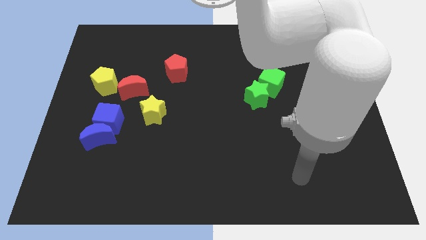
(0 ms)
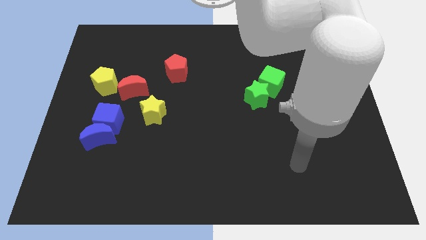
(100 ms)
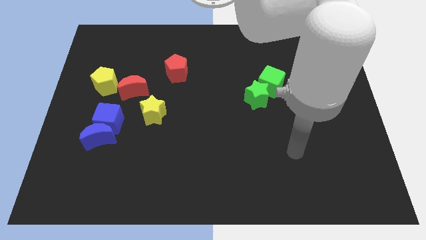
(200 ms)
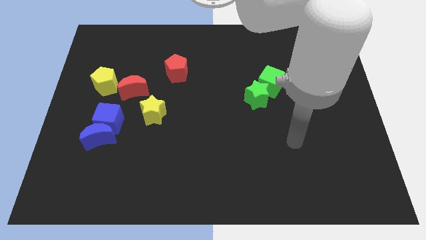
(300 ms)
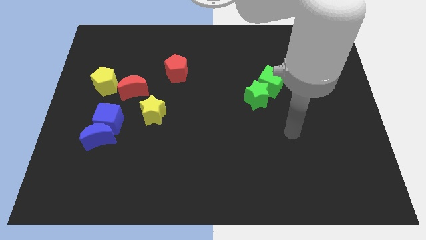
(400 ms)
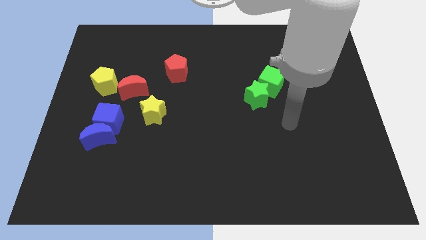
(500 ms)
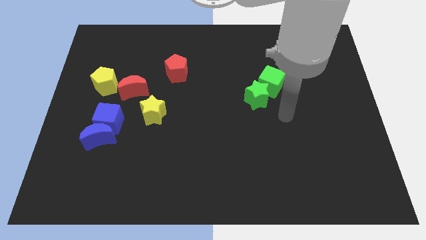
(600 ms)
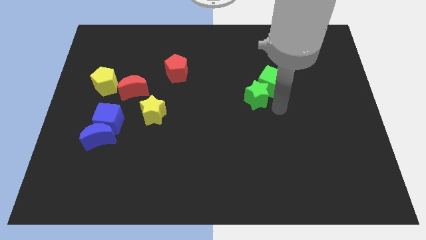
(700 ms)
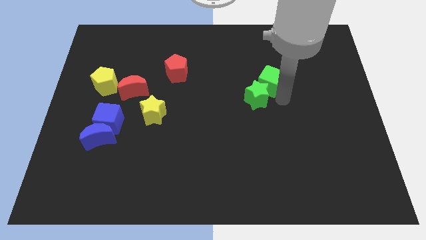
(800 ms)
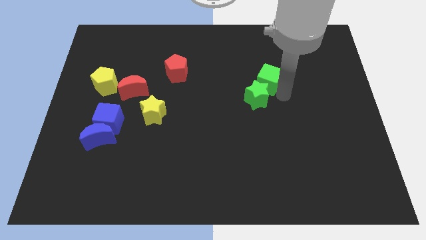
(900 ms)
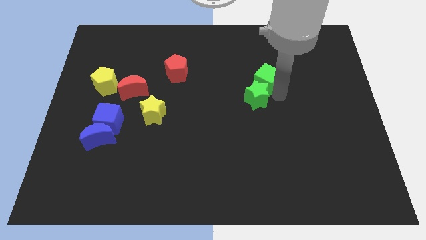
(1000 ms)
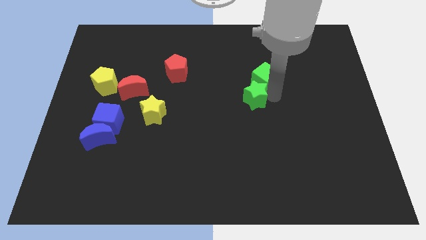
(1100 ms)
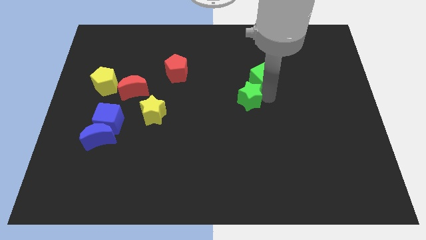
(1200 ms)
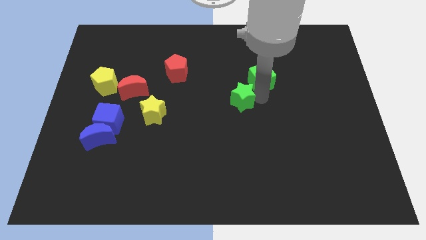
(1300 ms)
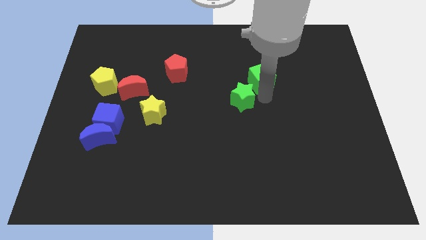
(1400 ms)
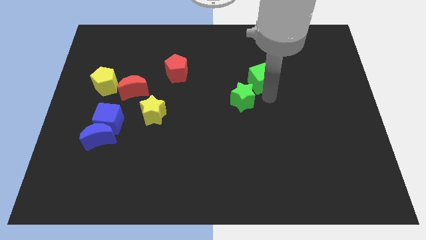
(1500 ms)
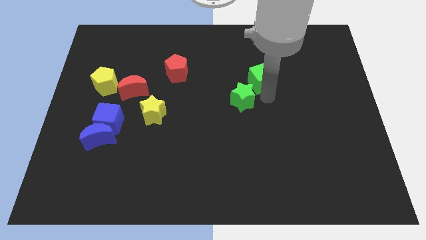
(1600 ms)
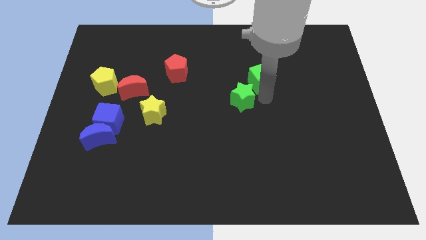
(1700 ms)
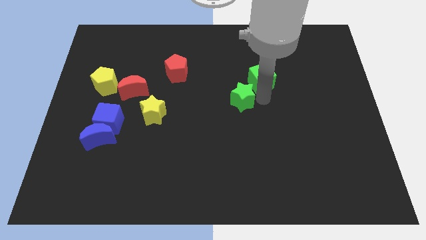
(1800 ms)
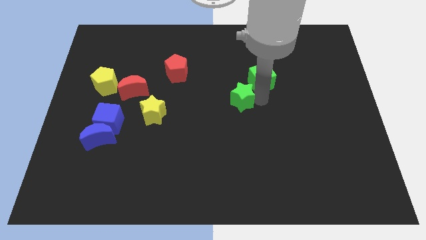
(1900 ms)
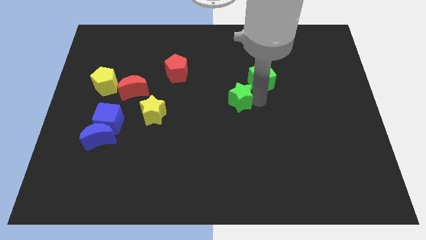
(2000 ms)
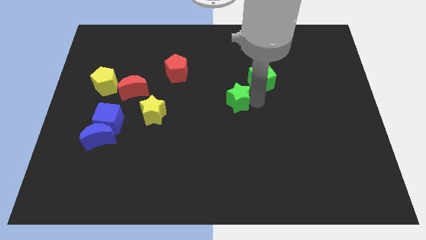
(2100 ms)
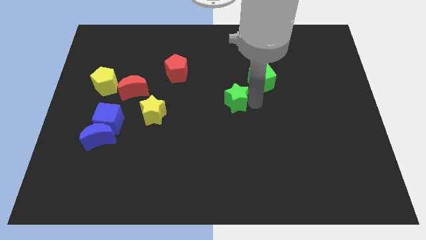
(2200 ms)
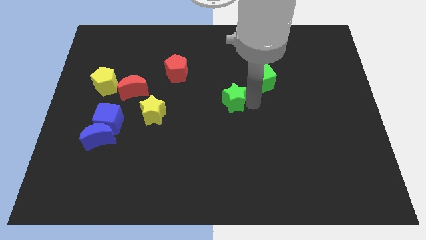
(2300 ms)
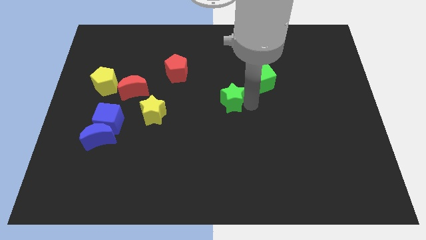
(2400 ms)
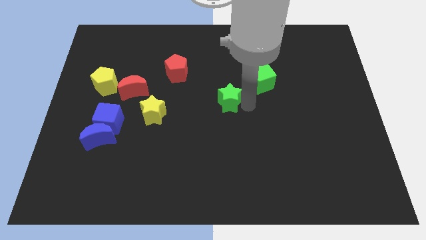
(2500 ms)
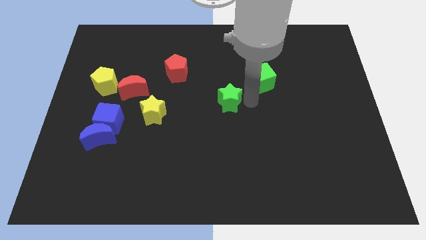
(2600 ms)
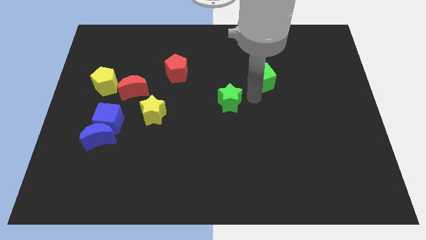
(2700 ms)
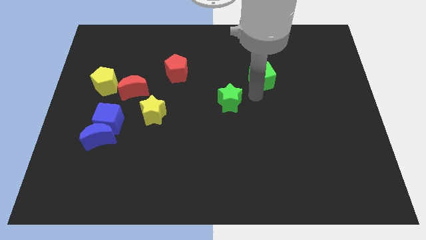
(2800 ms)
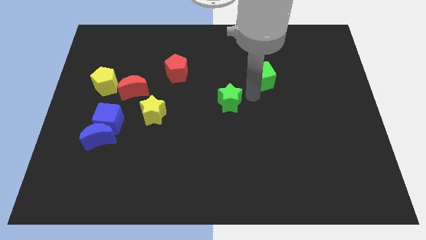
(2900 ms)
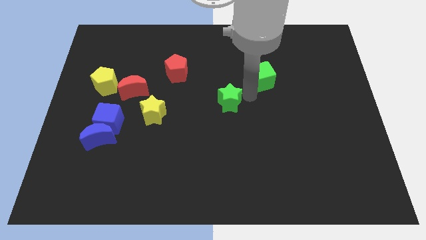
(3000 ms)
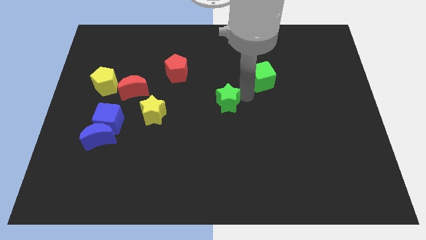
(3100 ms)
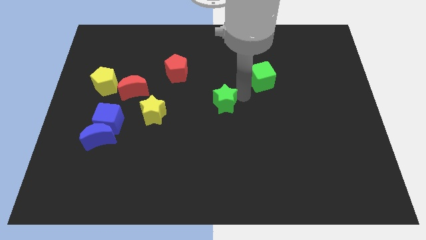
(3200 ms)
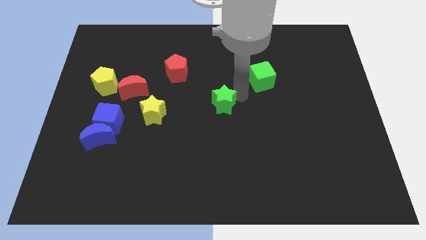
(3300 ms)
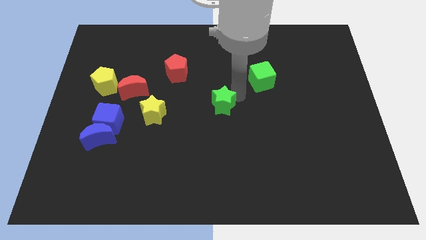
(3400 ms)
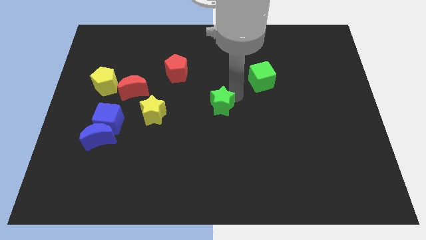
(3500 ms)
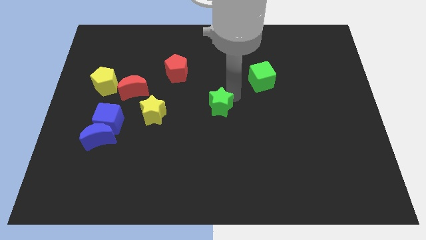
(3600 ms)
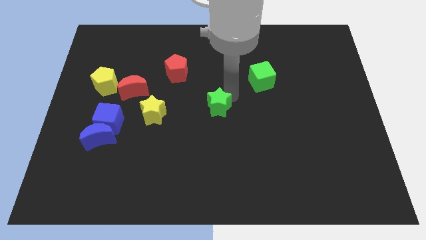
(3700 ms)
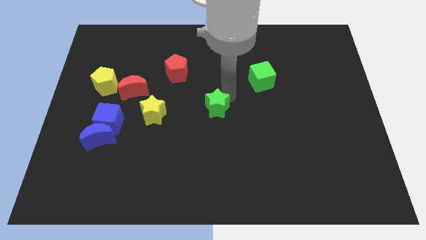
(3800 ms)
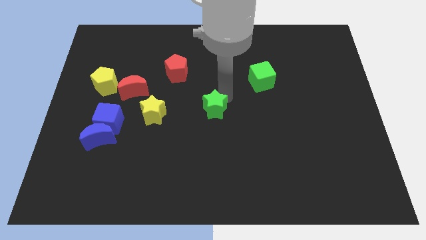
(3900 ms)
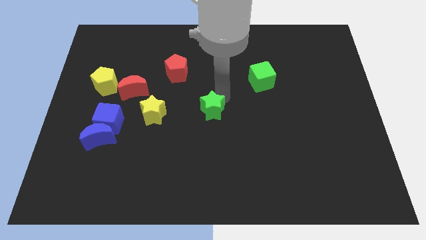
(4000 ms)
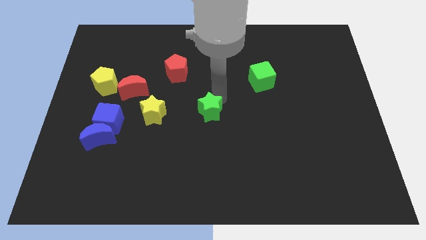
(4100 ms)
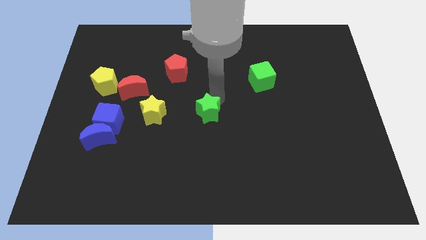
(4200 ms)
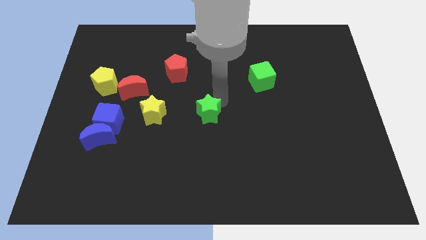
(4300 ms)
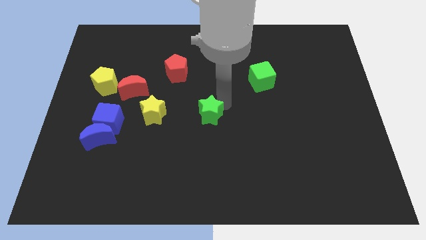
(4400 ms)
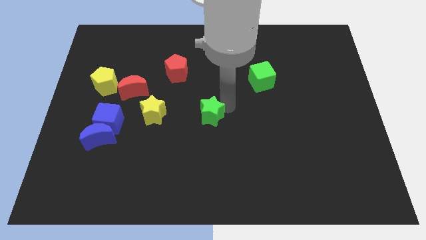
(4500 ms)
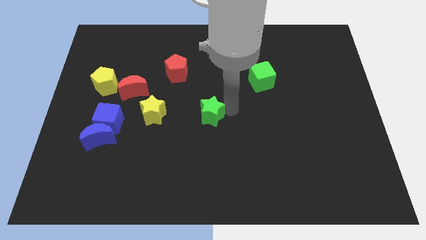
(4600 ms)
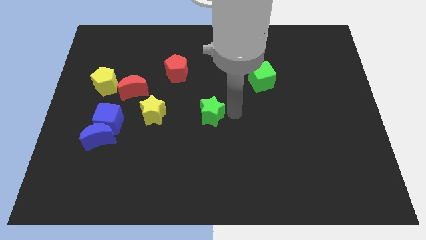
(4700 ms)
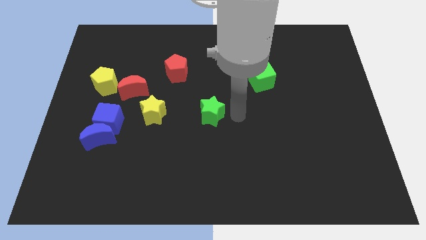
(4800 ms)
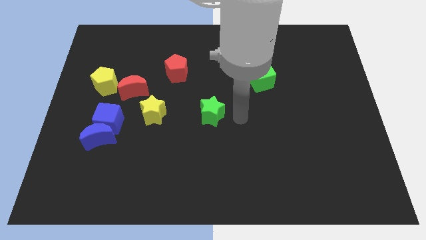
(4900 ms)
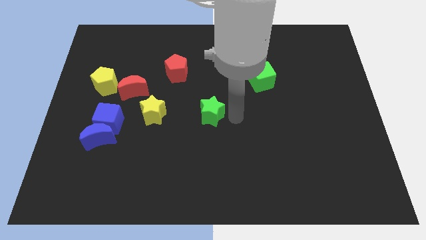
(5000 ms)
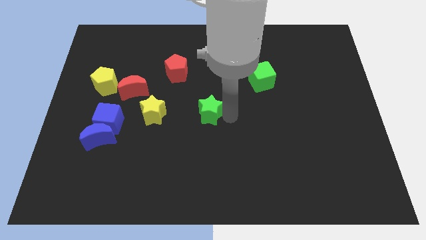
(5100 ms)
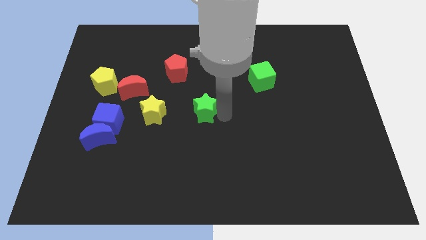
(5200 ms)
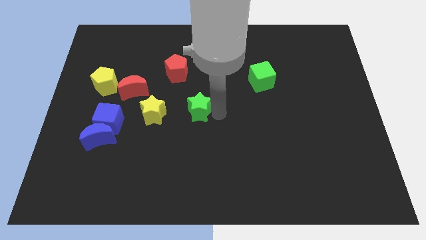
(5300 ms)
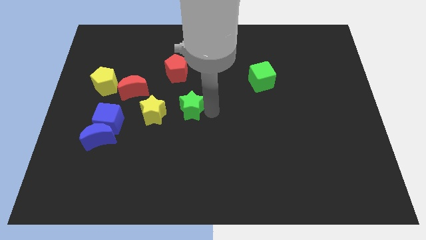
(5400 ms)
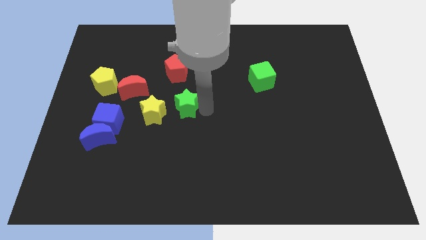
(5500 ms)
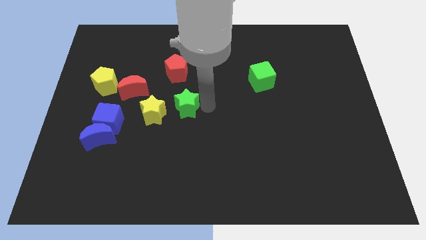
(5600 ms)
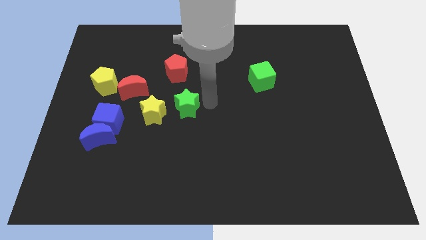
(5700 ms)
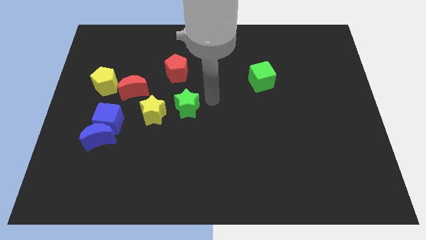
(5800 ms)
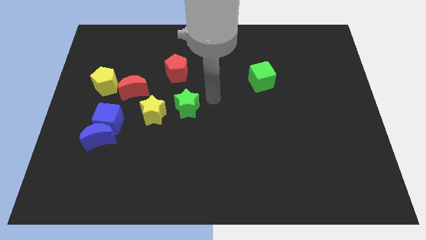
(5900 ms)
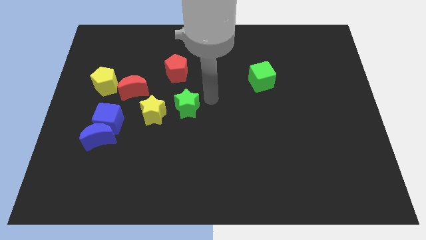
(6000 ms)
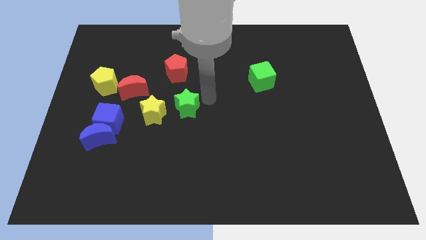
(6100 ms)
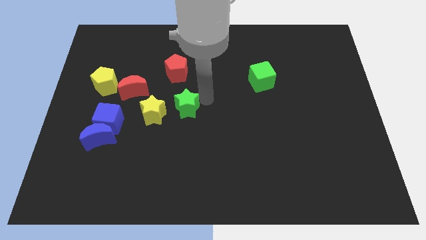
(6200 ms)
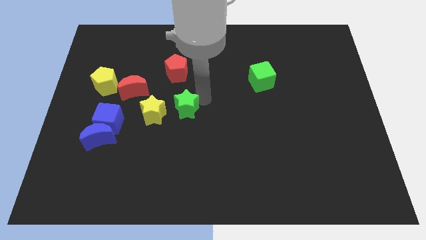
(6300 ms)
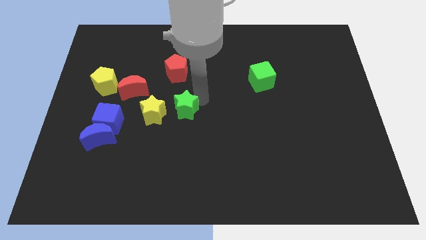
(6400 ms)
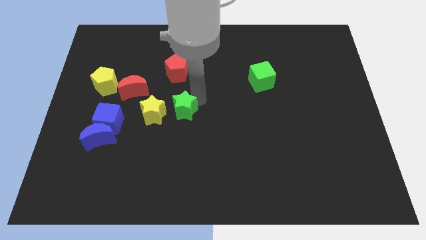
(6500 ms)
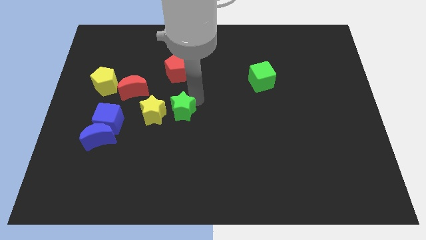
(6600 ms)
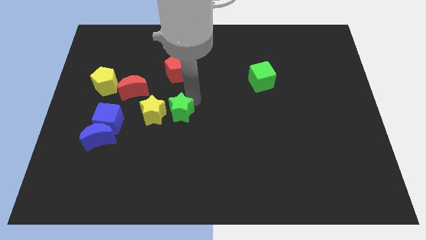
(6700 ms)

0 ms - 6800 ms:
put the green star towards the yellow star
